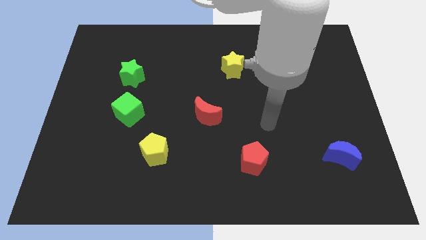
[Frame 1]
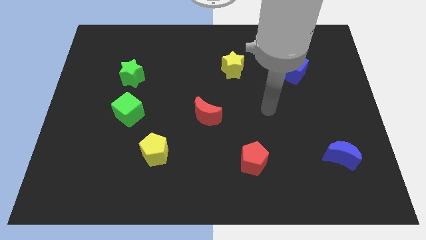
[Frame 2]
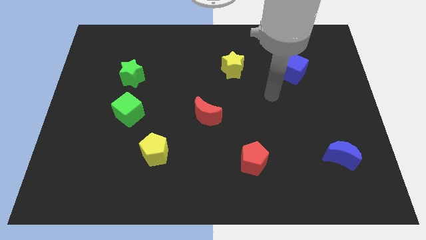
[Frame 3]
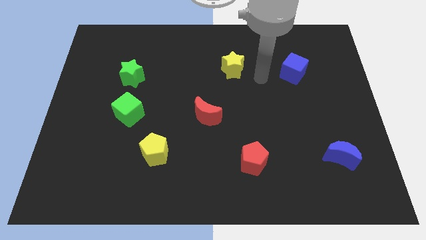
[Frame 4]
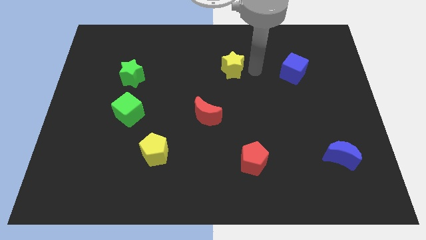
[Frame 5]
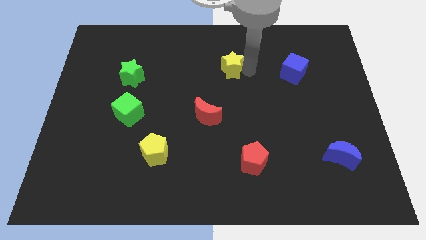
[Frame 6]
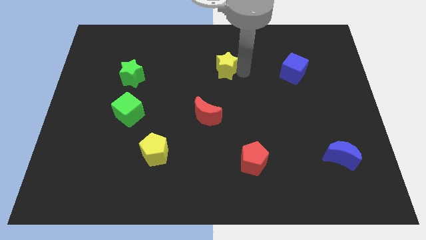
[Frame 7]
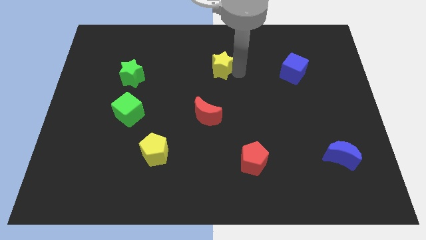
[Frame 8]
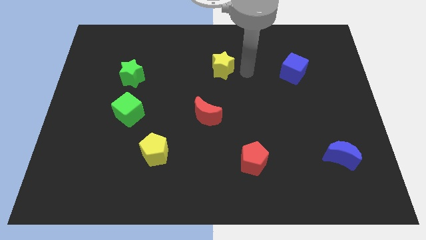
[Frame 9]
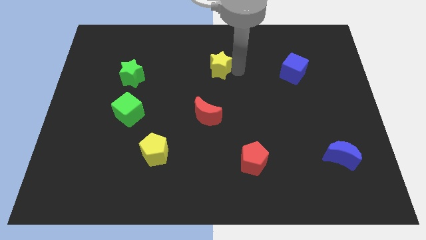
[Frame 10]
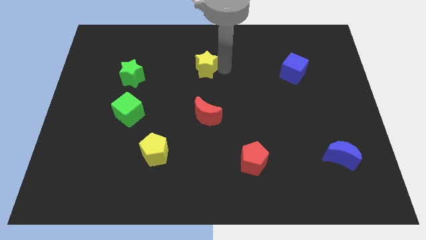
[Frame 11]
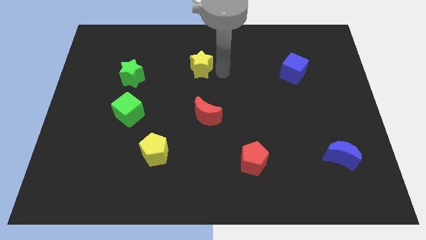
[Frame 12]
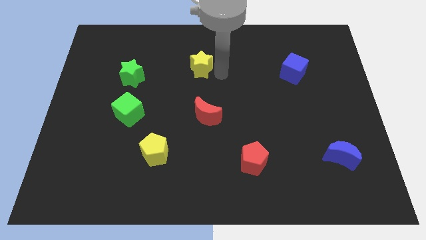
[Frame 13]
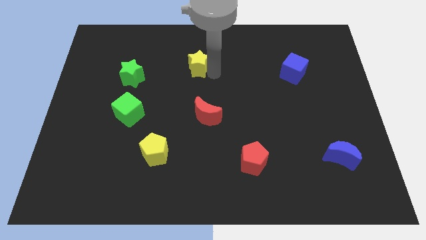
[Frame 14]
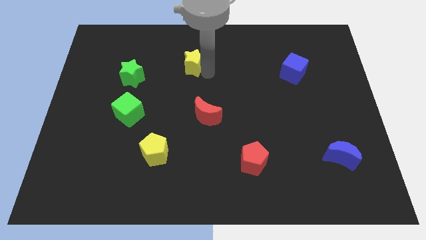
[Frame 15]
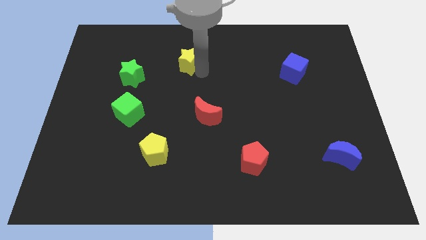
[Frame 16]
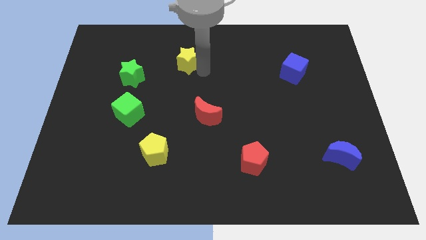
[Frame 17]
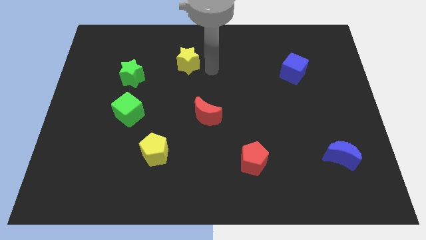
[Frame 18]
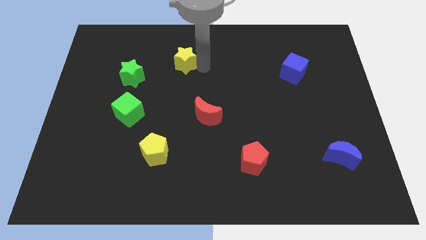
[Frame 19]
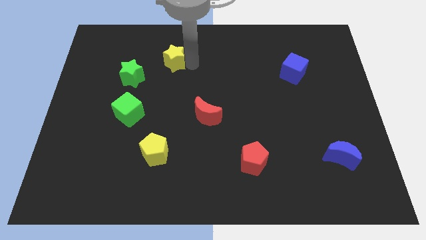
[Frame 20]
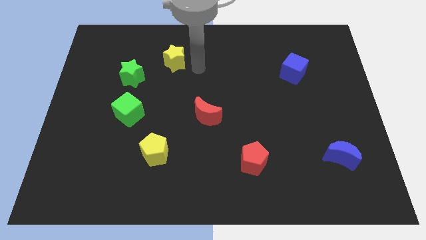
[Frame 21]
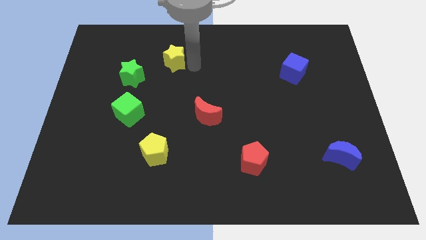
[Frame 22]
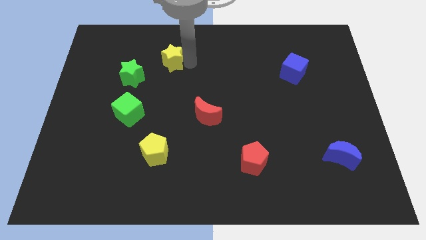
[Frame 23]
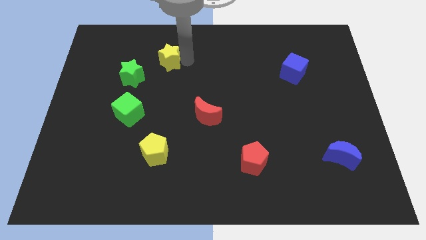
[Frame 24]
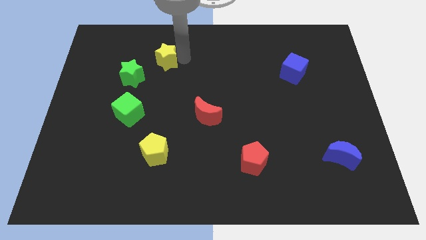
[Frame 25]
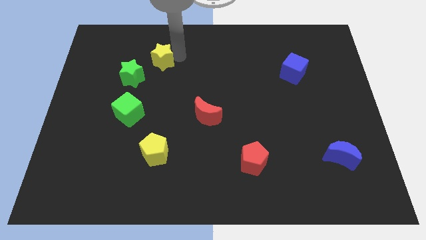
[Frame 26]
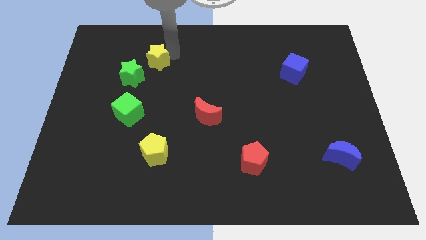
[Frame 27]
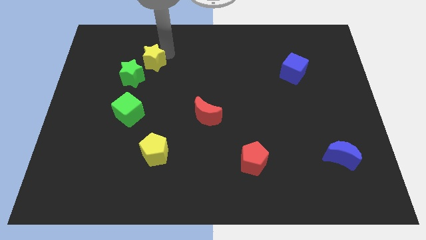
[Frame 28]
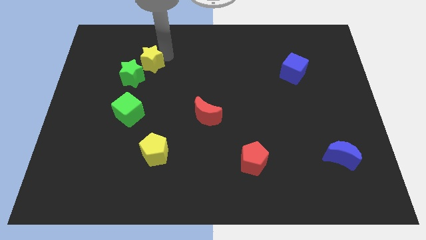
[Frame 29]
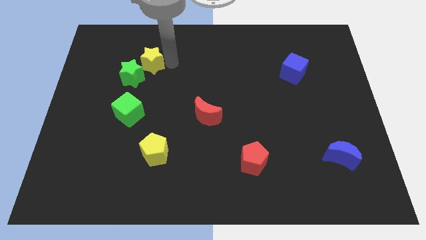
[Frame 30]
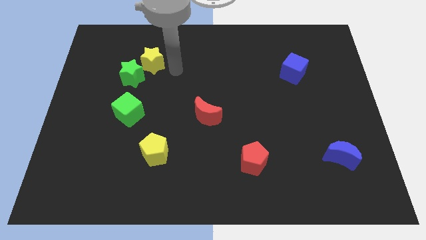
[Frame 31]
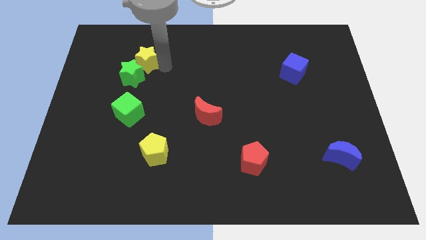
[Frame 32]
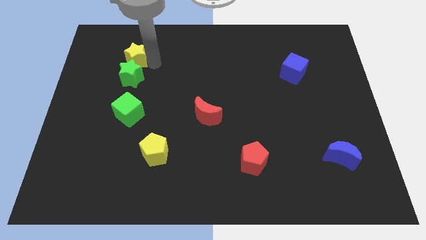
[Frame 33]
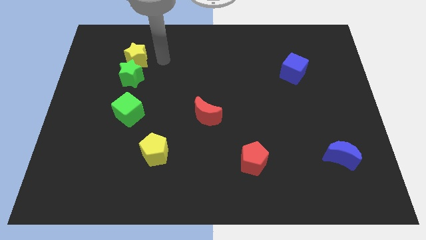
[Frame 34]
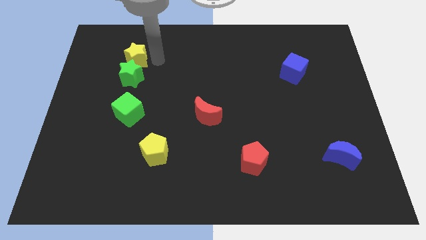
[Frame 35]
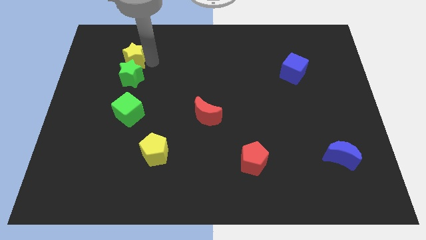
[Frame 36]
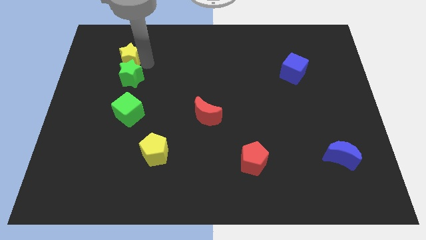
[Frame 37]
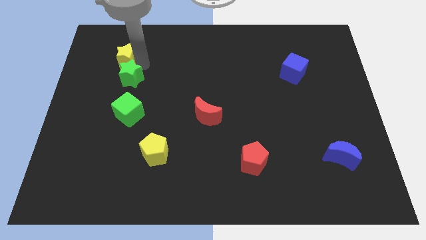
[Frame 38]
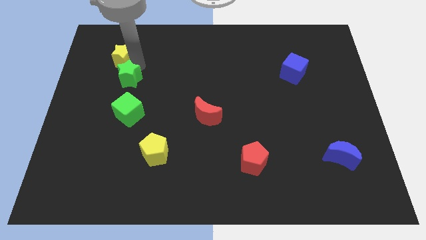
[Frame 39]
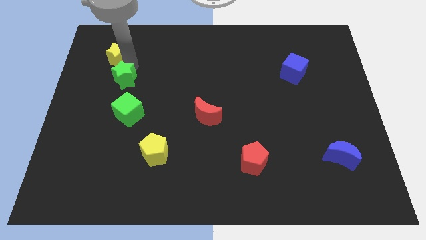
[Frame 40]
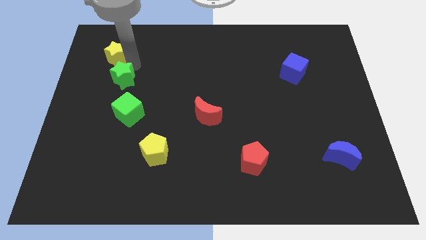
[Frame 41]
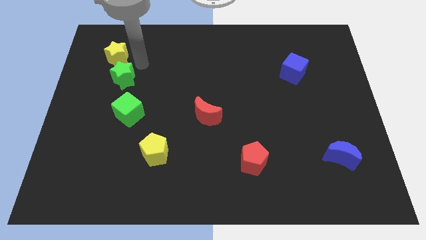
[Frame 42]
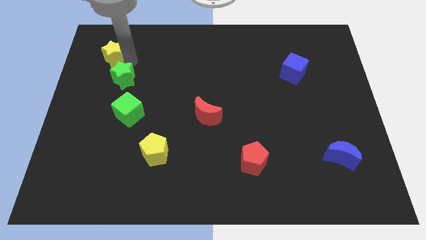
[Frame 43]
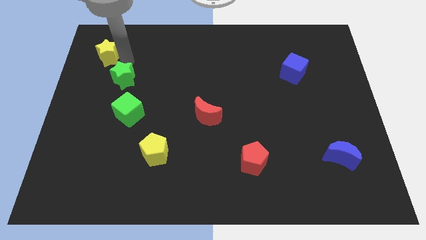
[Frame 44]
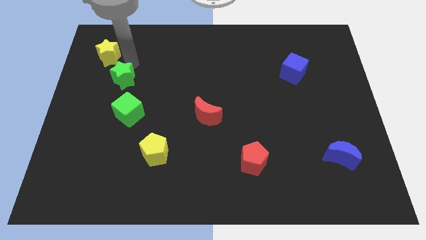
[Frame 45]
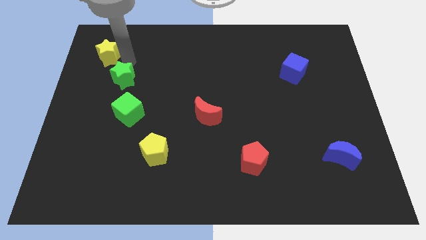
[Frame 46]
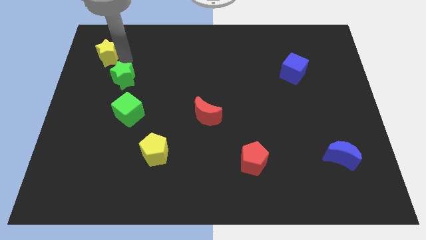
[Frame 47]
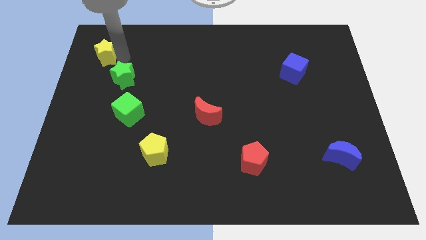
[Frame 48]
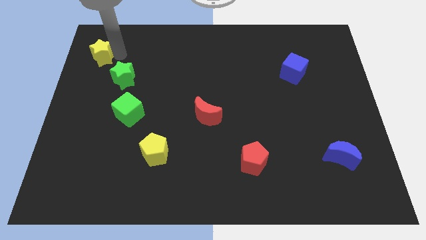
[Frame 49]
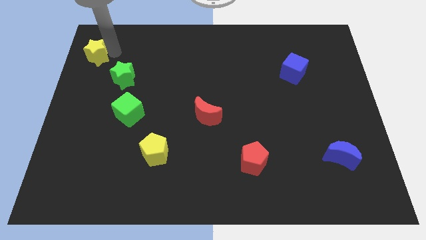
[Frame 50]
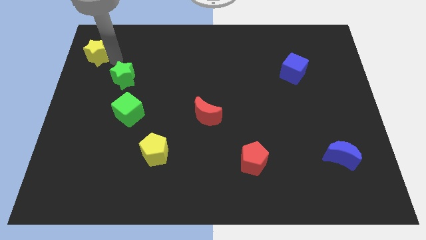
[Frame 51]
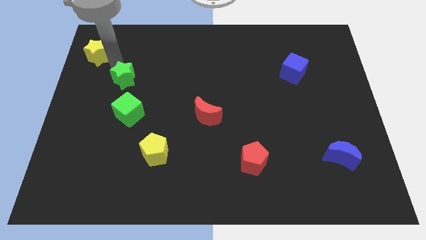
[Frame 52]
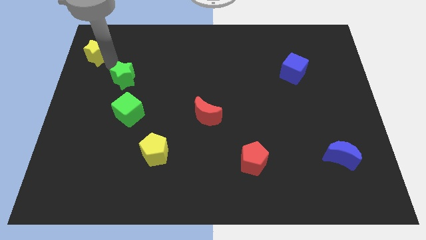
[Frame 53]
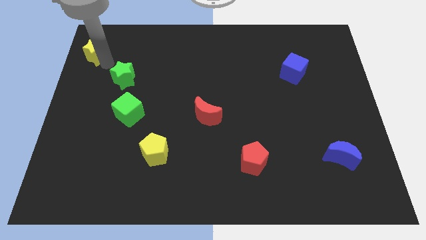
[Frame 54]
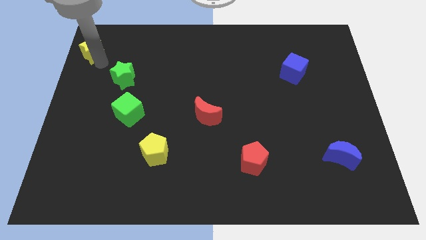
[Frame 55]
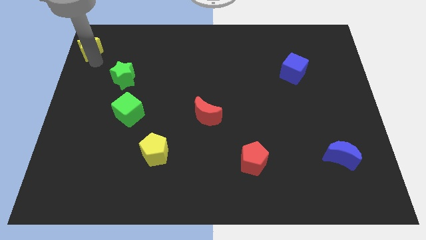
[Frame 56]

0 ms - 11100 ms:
slide the yellow star to the top left
